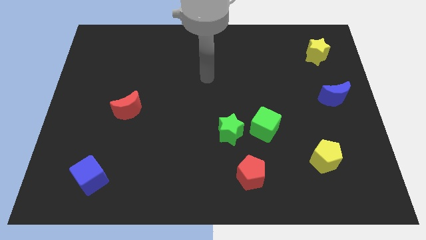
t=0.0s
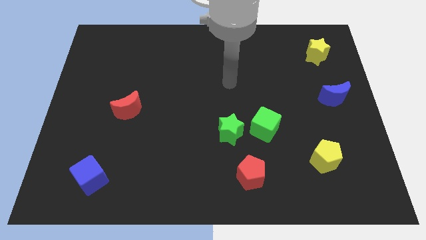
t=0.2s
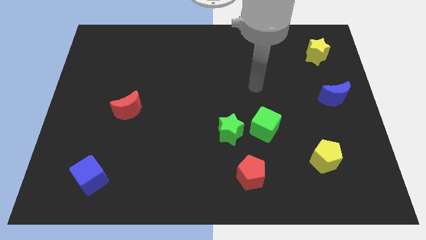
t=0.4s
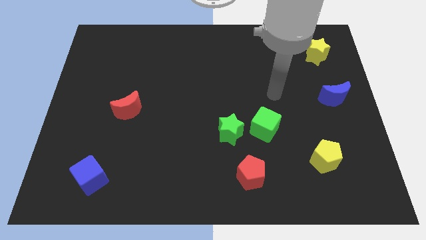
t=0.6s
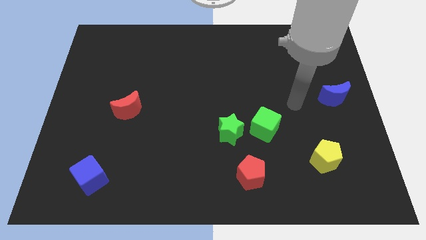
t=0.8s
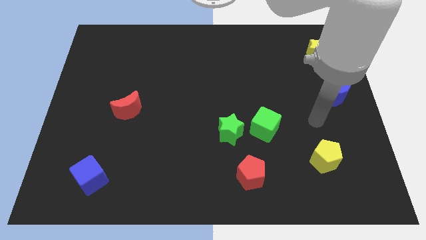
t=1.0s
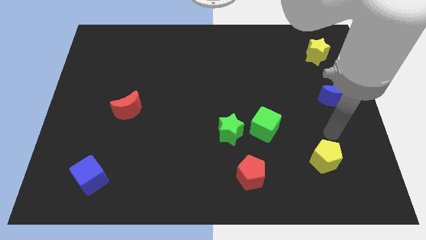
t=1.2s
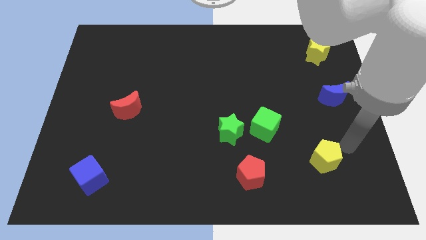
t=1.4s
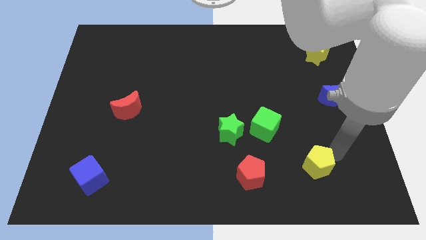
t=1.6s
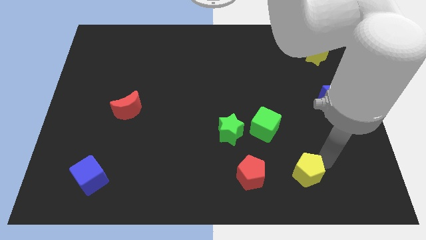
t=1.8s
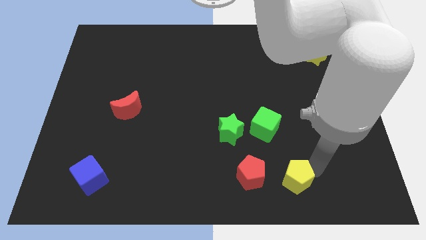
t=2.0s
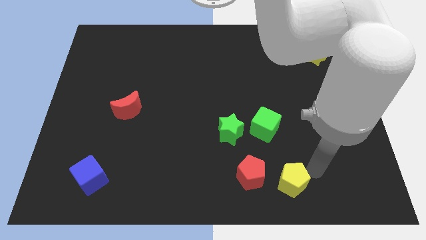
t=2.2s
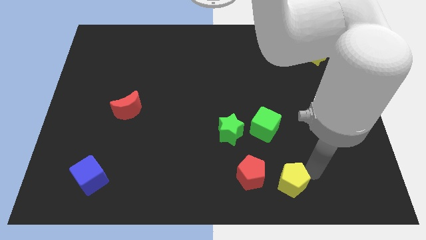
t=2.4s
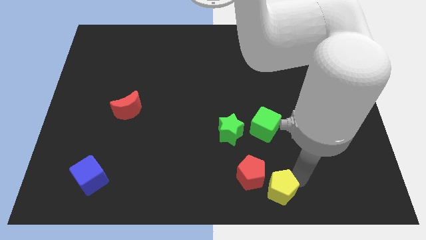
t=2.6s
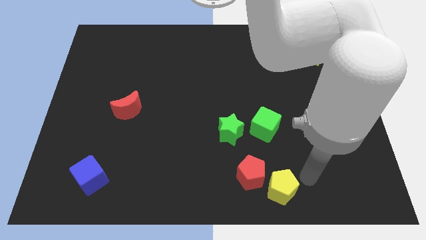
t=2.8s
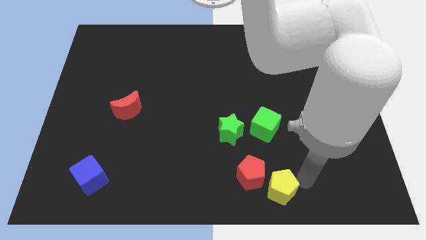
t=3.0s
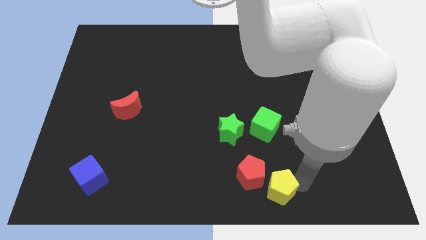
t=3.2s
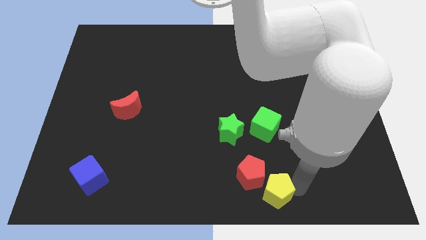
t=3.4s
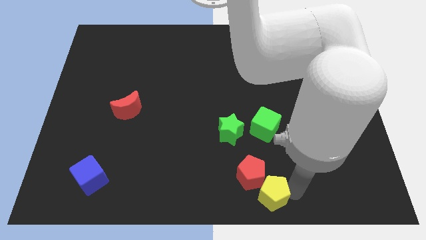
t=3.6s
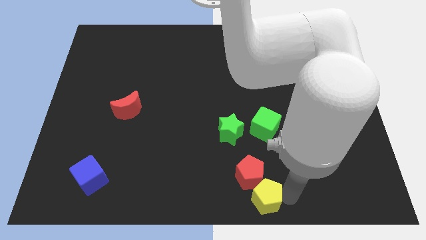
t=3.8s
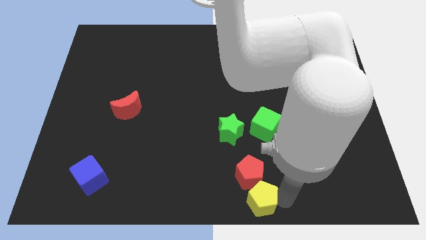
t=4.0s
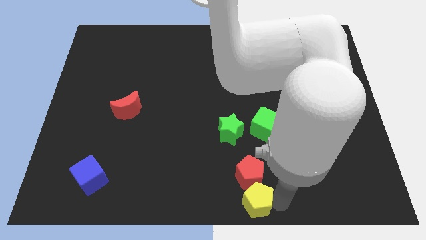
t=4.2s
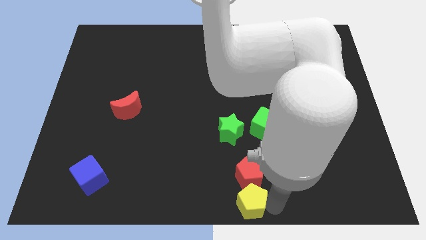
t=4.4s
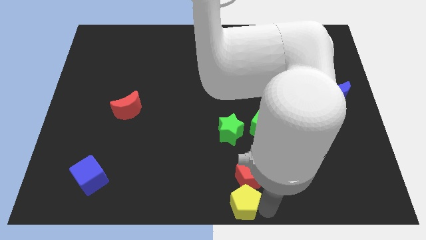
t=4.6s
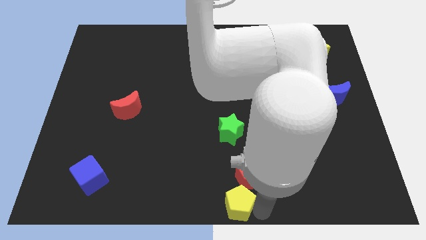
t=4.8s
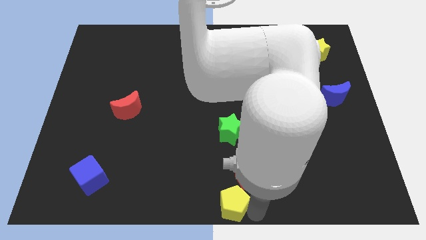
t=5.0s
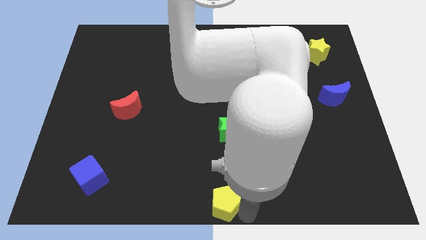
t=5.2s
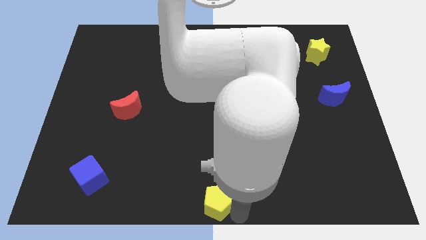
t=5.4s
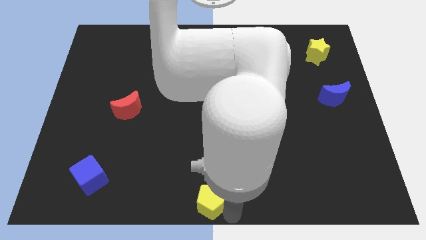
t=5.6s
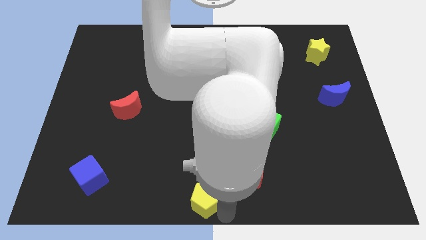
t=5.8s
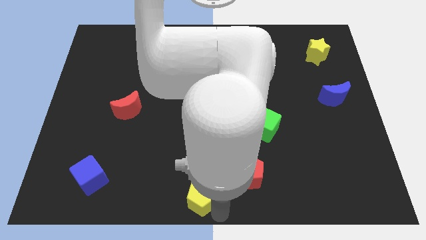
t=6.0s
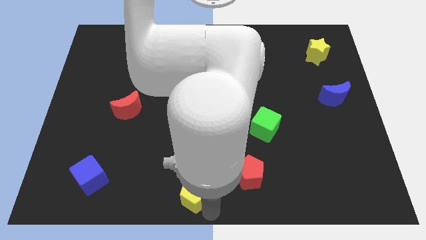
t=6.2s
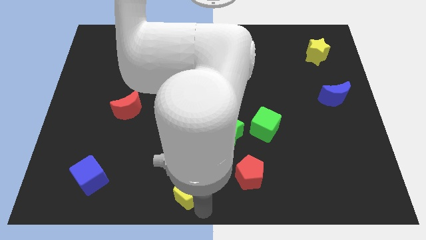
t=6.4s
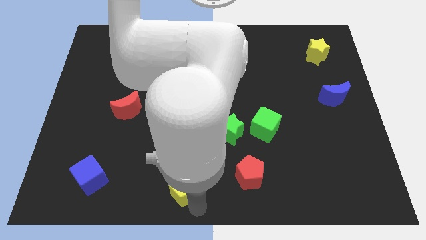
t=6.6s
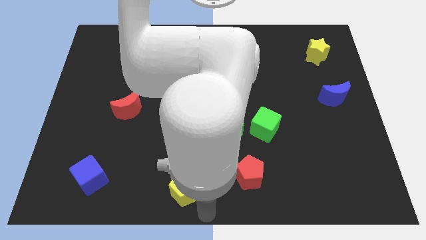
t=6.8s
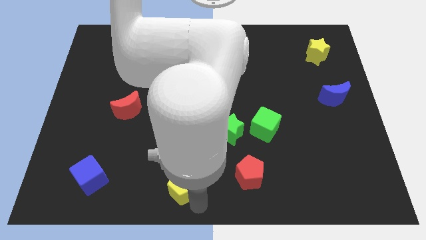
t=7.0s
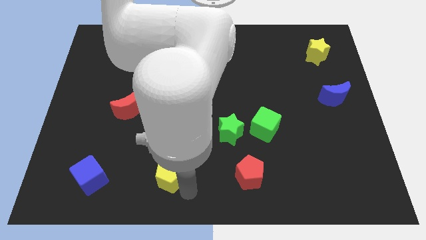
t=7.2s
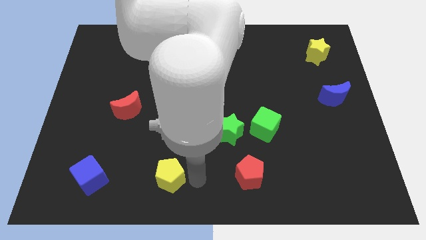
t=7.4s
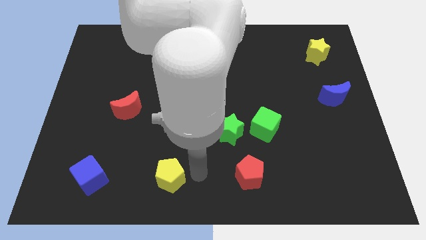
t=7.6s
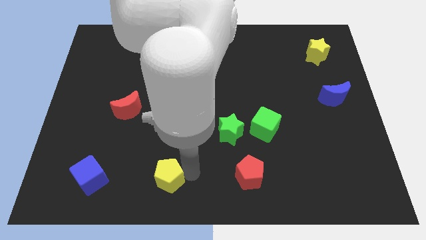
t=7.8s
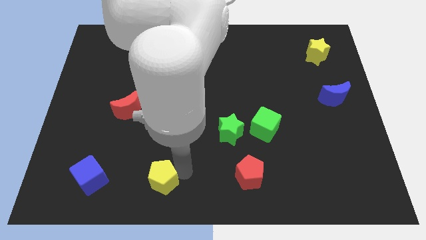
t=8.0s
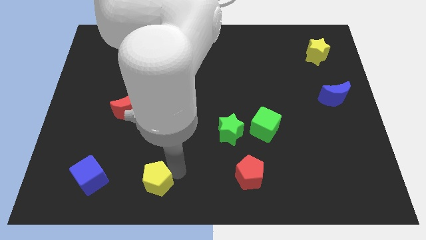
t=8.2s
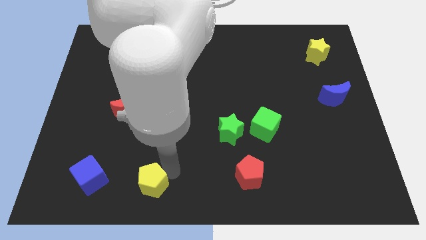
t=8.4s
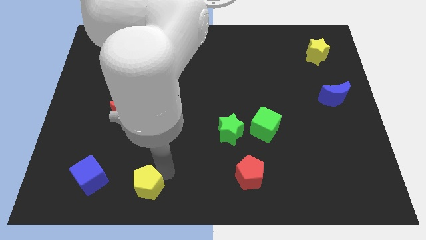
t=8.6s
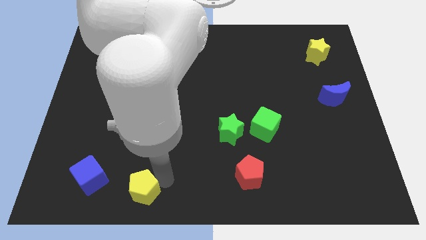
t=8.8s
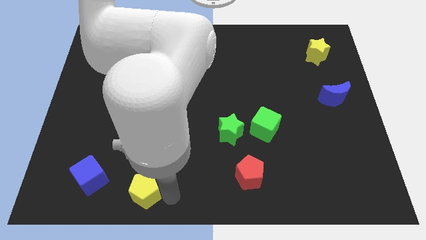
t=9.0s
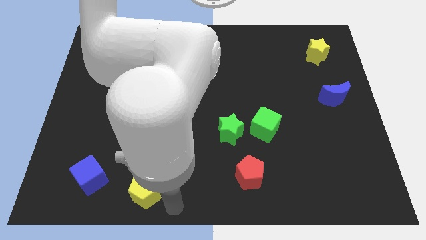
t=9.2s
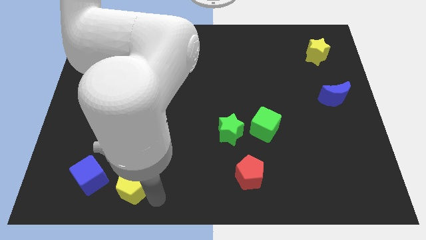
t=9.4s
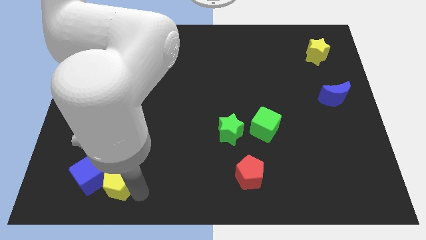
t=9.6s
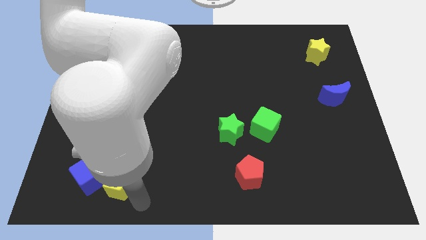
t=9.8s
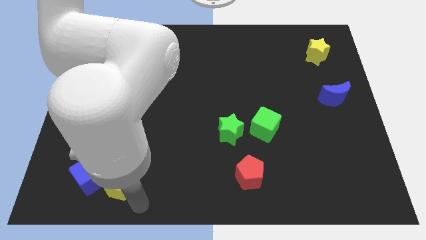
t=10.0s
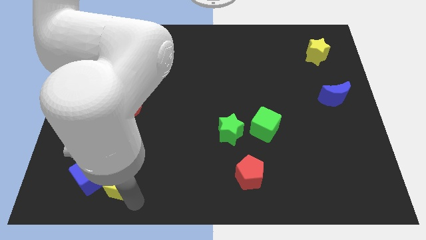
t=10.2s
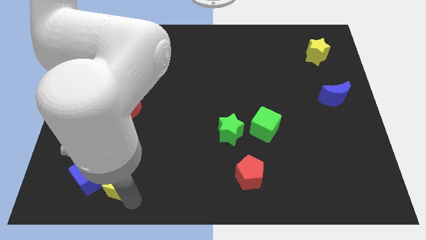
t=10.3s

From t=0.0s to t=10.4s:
slide the yellow pentagon next to the blue cube
